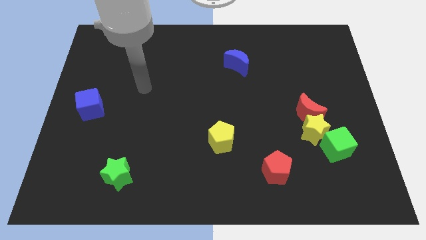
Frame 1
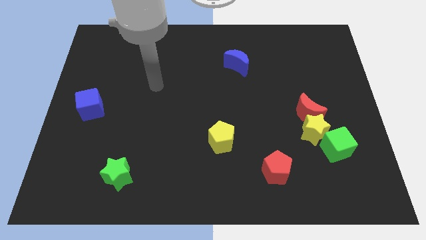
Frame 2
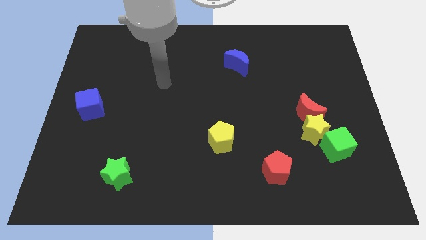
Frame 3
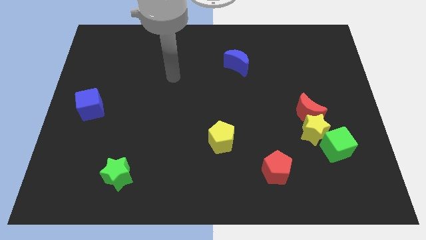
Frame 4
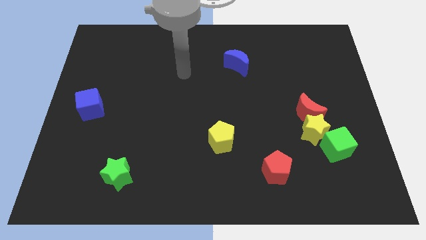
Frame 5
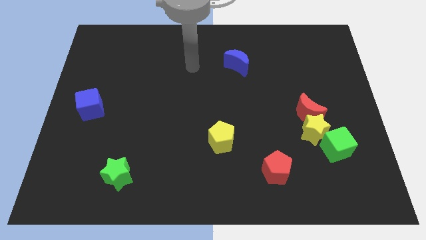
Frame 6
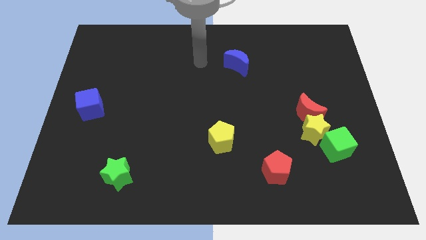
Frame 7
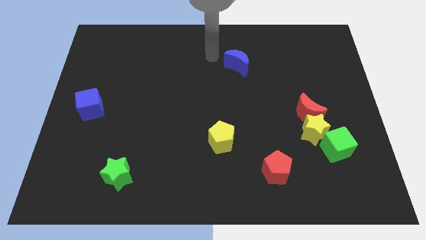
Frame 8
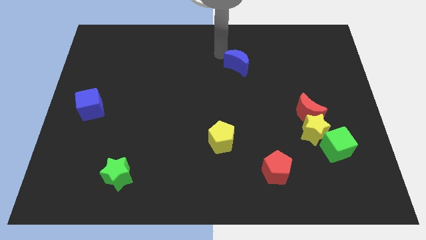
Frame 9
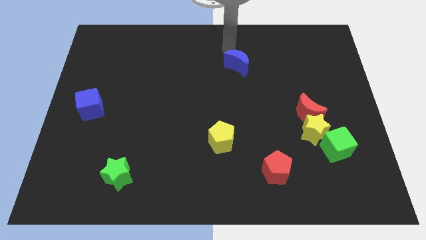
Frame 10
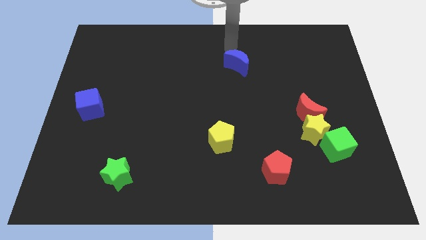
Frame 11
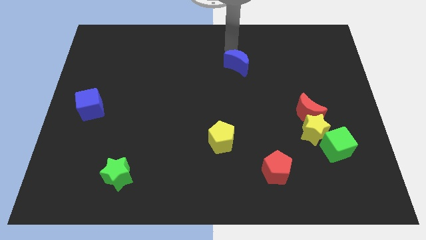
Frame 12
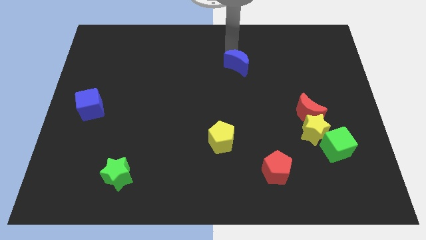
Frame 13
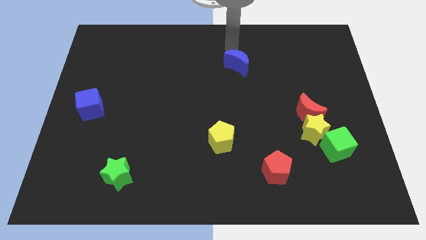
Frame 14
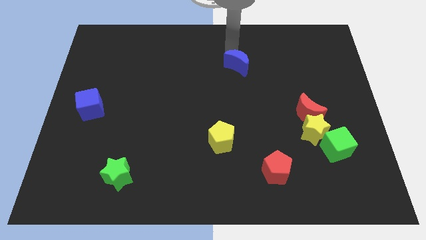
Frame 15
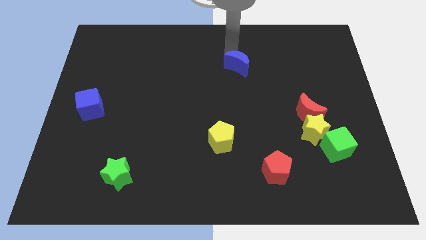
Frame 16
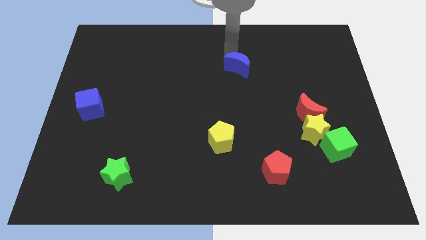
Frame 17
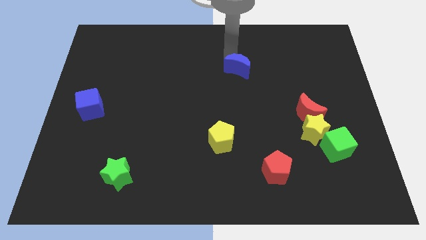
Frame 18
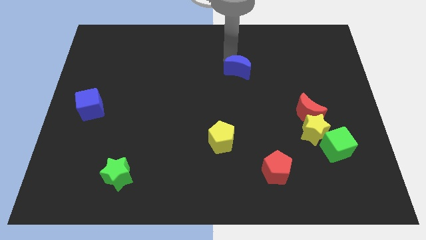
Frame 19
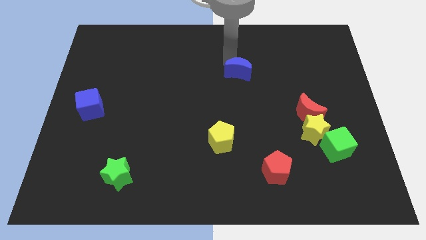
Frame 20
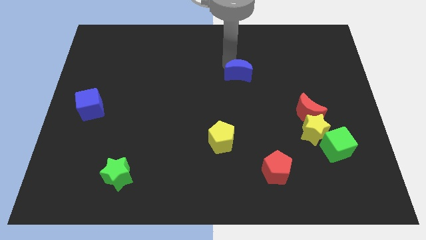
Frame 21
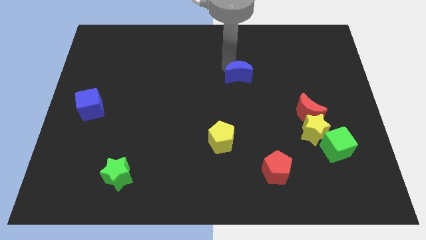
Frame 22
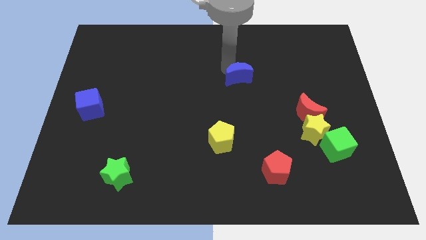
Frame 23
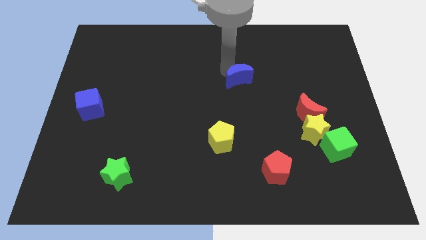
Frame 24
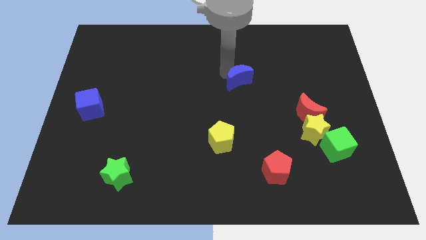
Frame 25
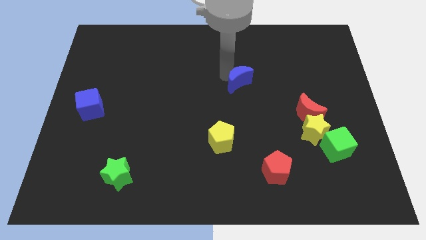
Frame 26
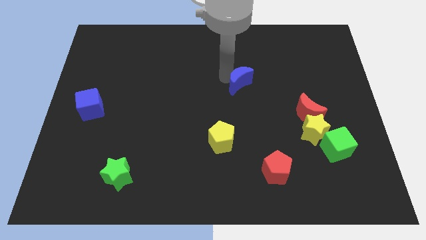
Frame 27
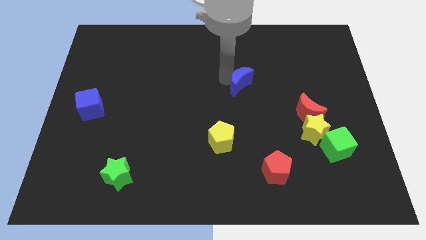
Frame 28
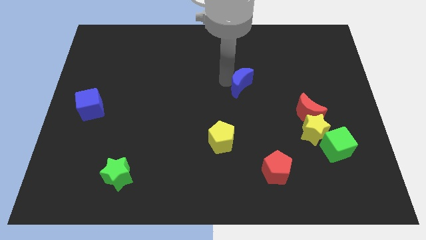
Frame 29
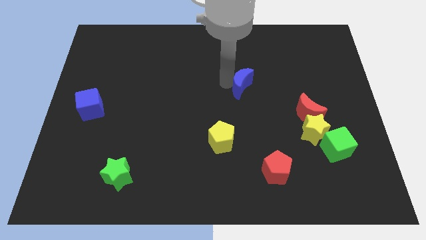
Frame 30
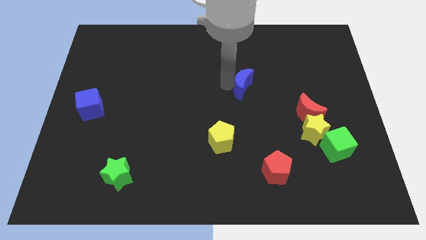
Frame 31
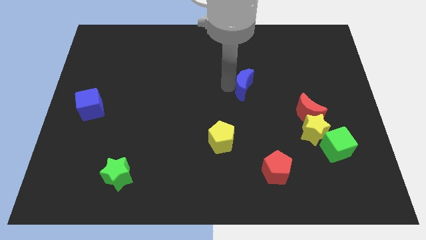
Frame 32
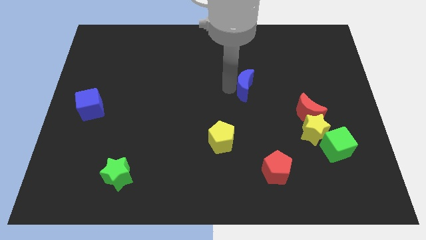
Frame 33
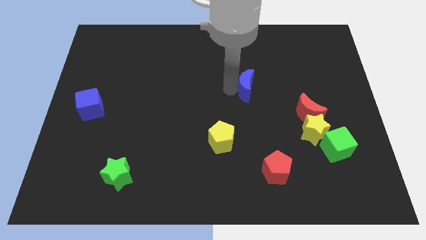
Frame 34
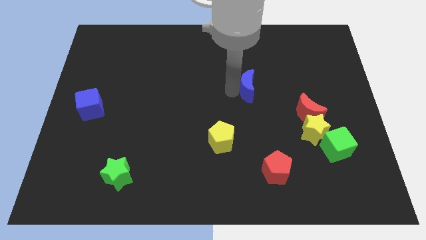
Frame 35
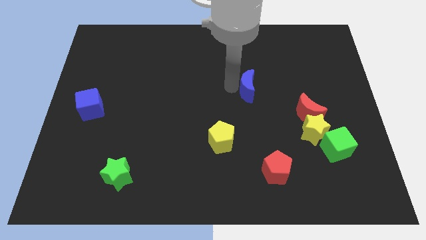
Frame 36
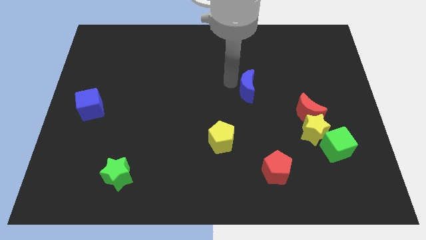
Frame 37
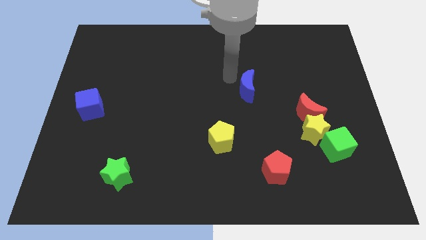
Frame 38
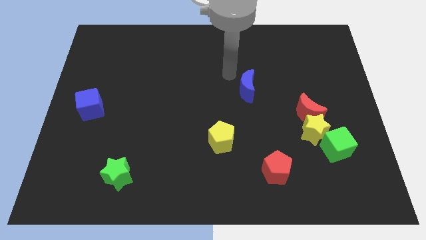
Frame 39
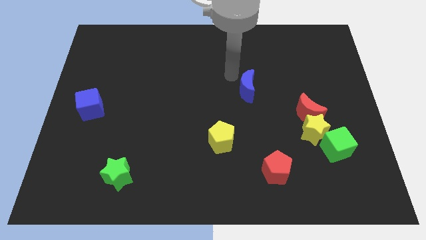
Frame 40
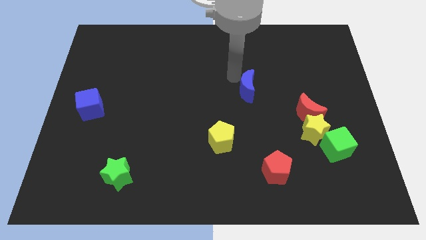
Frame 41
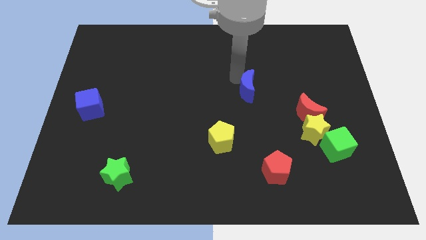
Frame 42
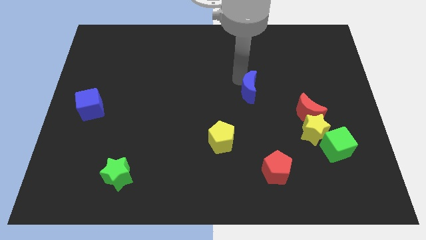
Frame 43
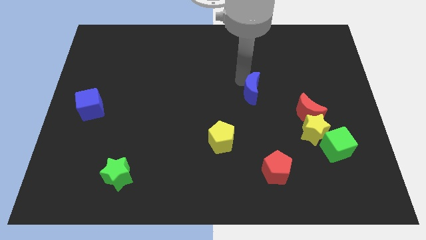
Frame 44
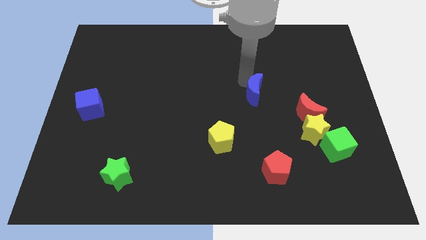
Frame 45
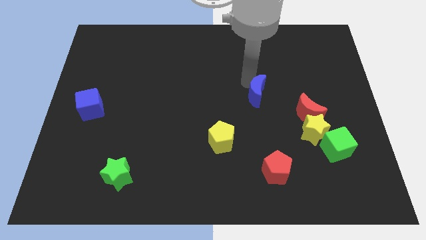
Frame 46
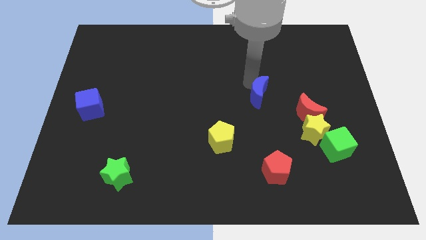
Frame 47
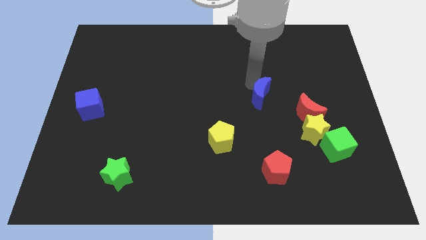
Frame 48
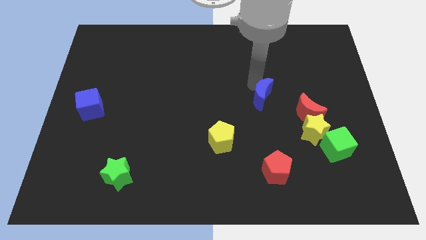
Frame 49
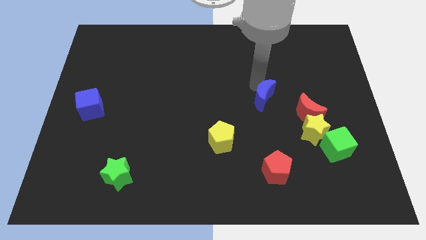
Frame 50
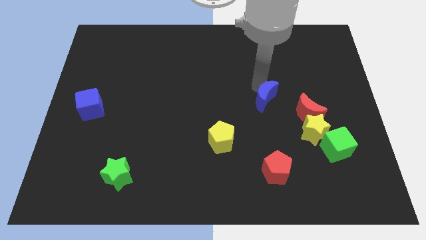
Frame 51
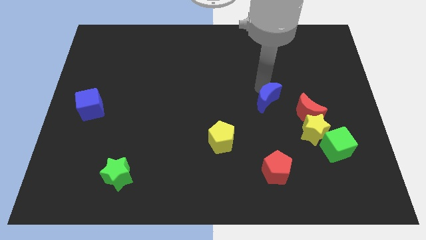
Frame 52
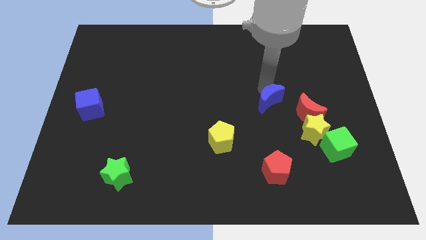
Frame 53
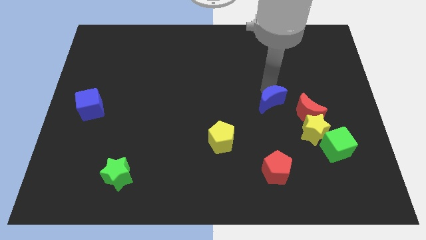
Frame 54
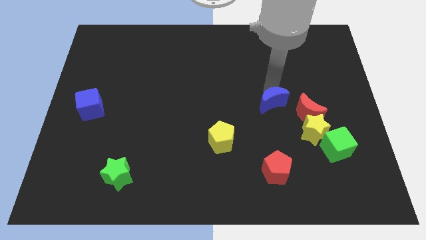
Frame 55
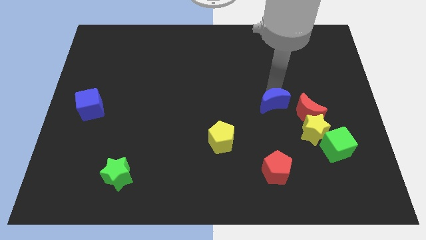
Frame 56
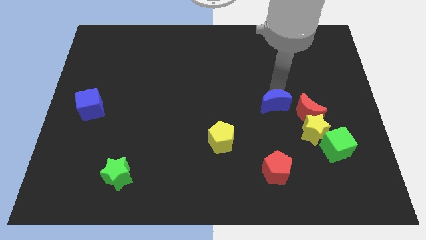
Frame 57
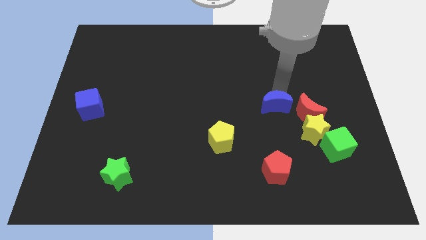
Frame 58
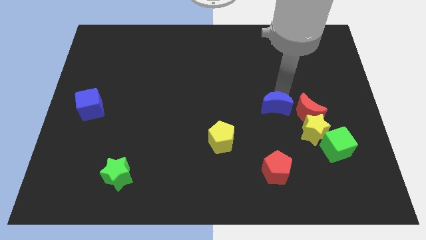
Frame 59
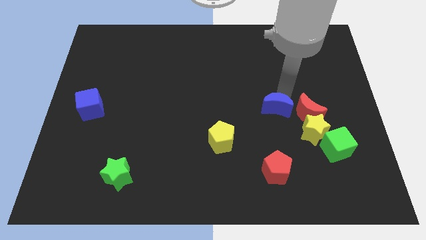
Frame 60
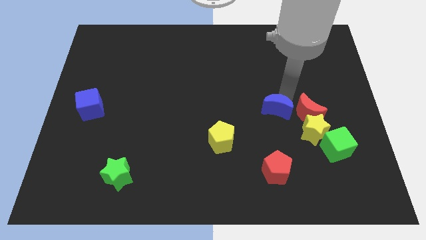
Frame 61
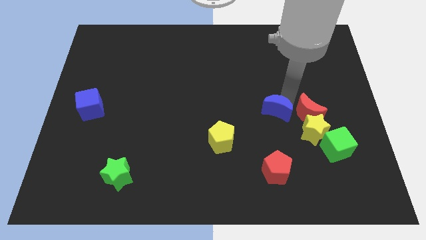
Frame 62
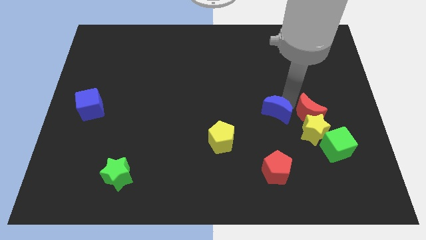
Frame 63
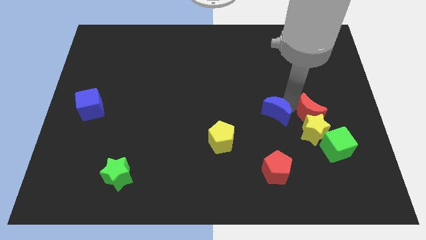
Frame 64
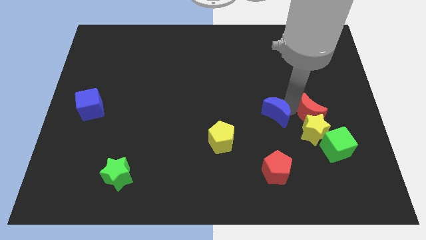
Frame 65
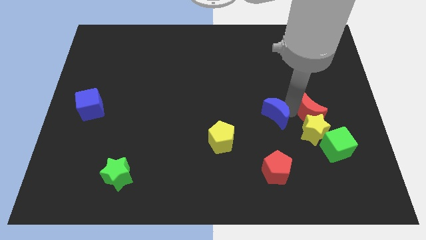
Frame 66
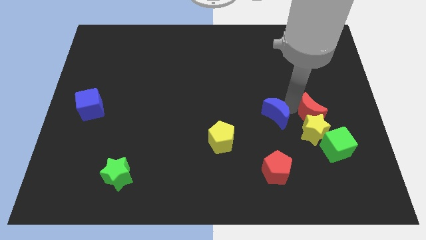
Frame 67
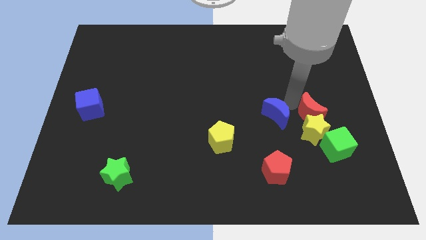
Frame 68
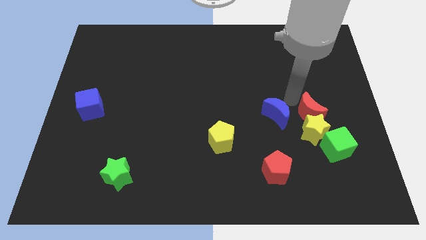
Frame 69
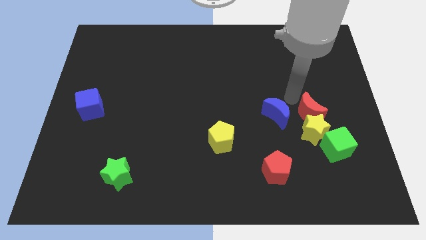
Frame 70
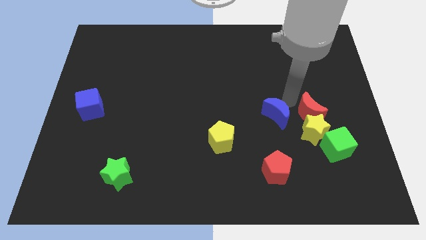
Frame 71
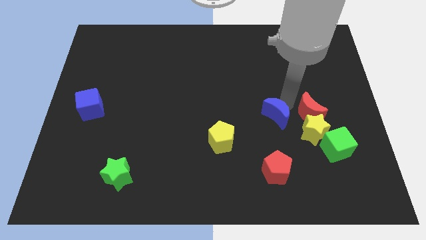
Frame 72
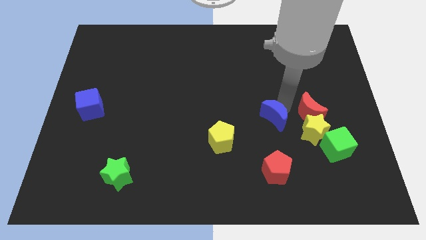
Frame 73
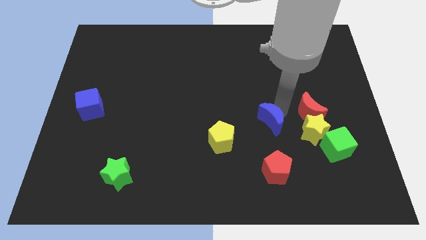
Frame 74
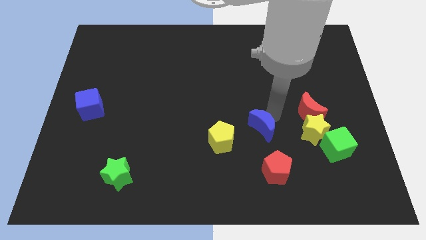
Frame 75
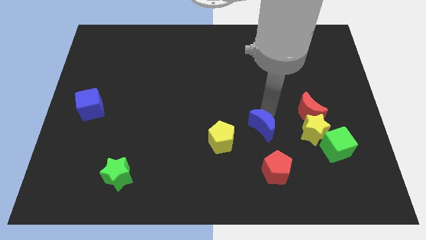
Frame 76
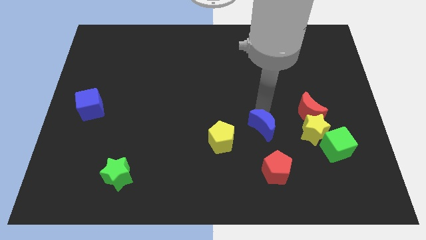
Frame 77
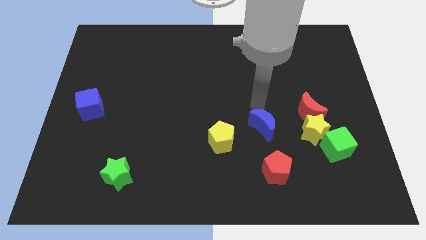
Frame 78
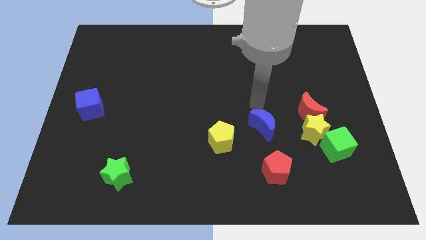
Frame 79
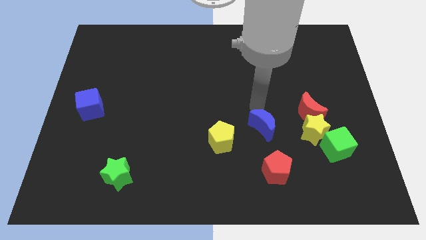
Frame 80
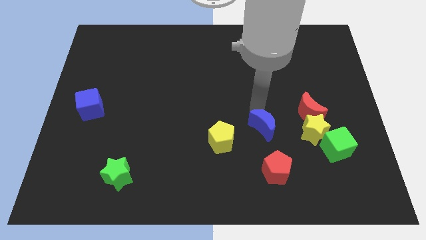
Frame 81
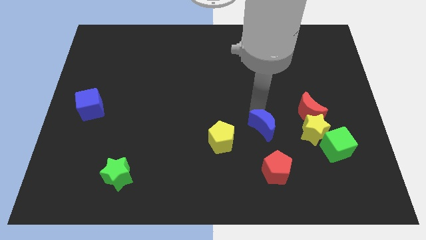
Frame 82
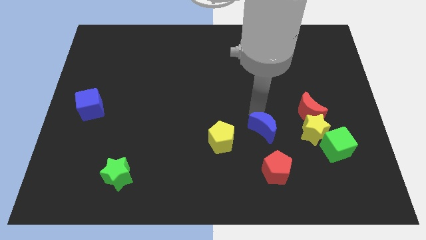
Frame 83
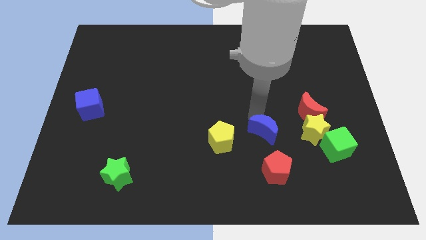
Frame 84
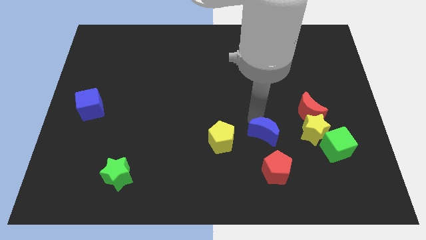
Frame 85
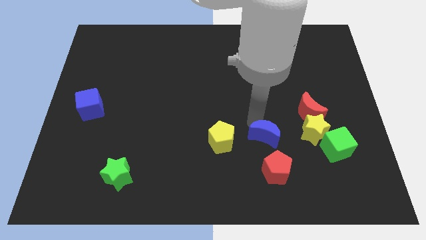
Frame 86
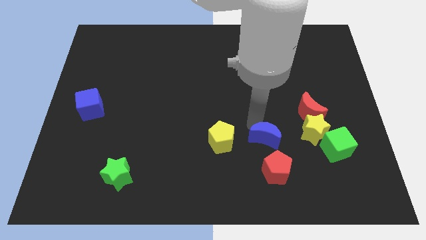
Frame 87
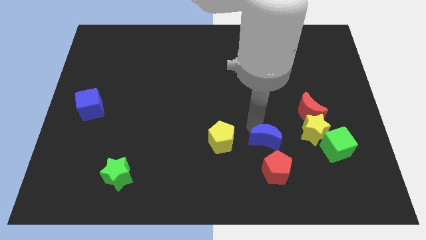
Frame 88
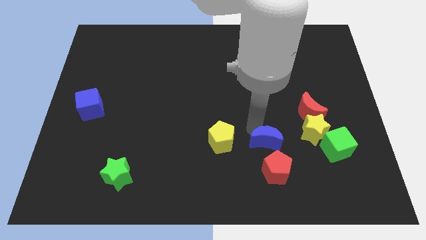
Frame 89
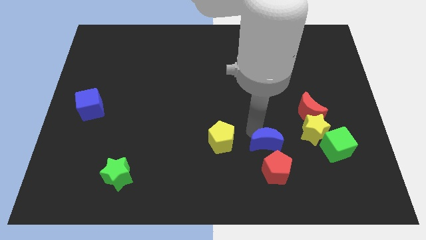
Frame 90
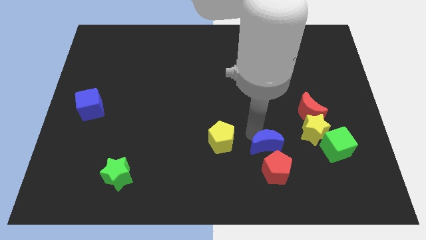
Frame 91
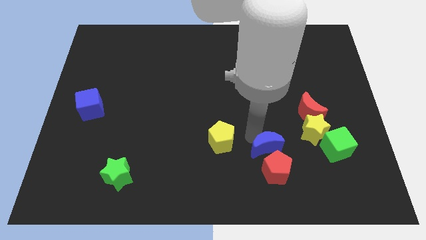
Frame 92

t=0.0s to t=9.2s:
move the blue moon close to the red pentagon
